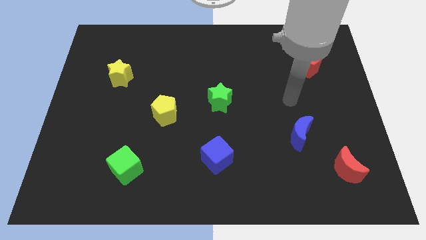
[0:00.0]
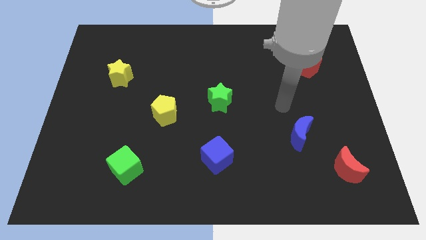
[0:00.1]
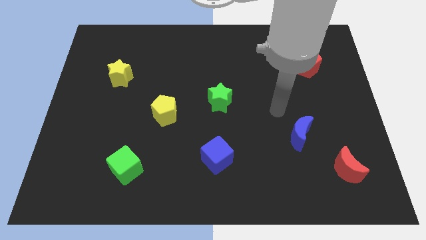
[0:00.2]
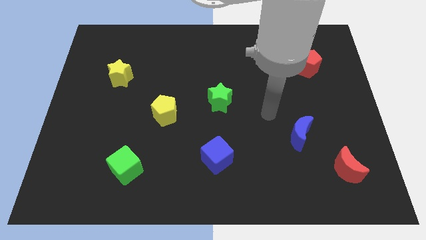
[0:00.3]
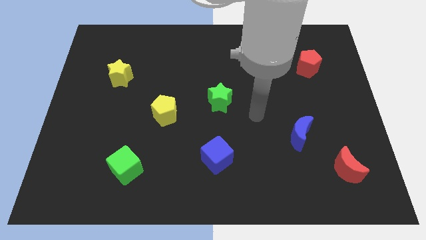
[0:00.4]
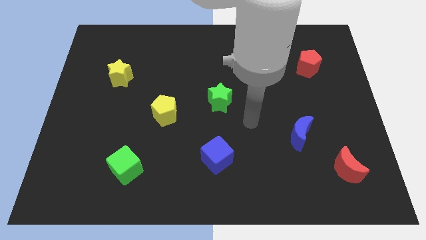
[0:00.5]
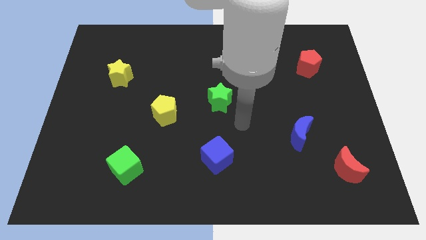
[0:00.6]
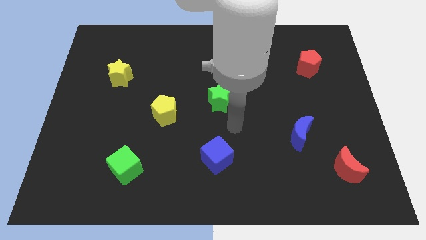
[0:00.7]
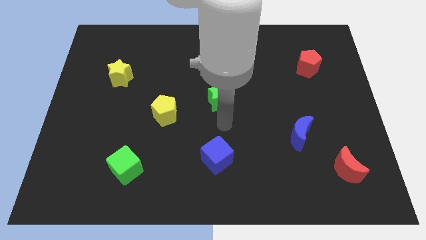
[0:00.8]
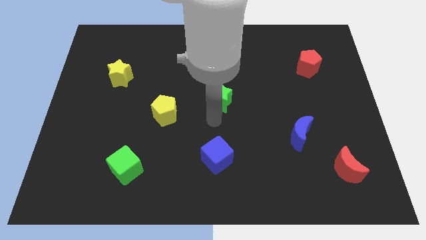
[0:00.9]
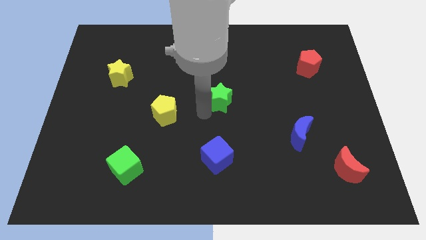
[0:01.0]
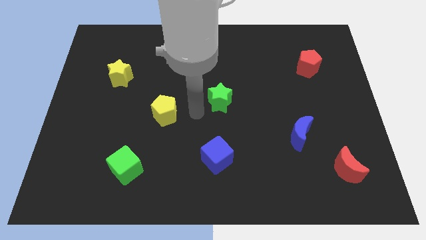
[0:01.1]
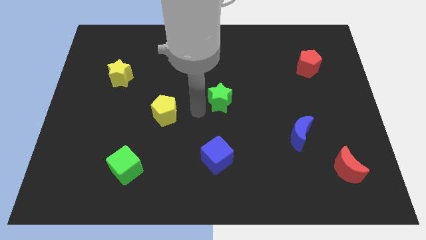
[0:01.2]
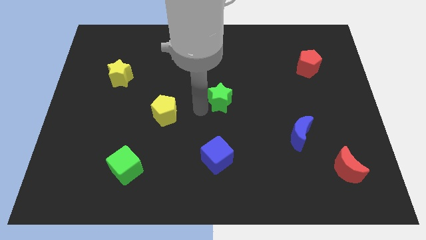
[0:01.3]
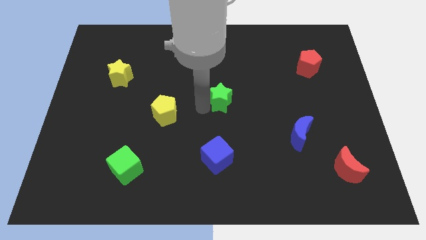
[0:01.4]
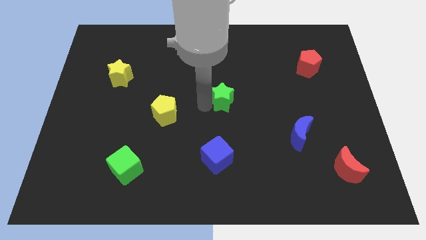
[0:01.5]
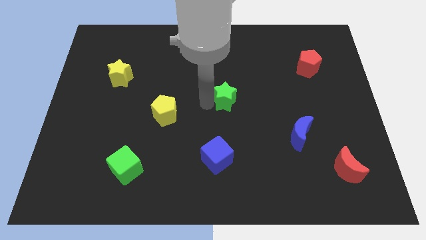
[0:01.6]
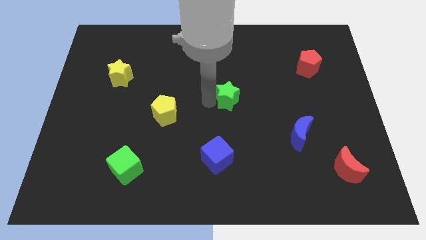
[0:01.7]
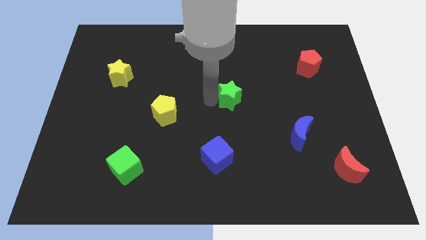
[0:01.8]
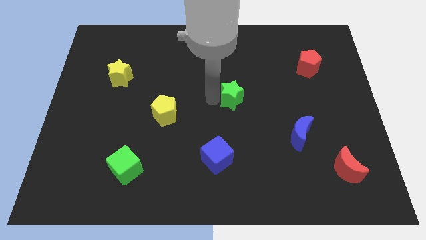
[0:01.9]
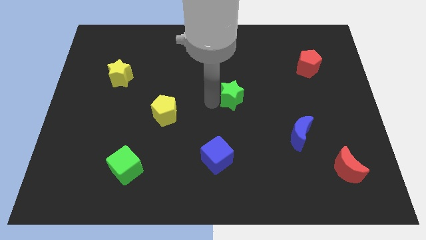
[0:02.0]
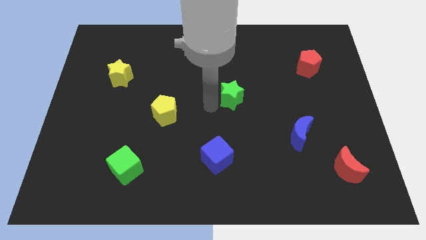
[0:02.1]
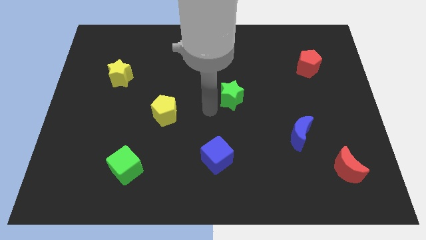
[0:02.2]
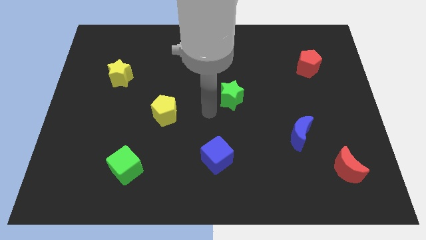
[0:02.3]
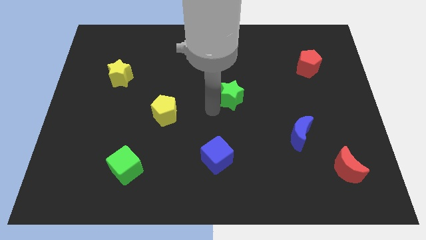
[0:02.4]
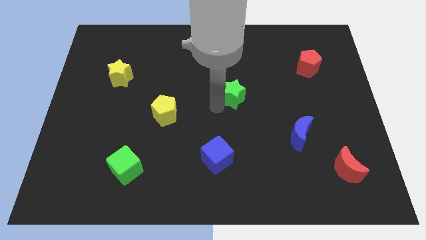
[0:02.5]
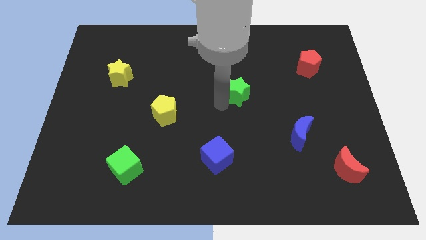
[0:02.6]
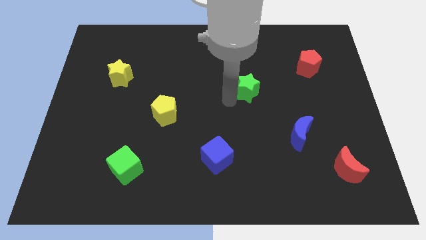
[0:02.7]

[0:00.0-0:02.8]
move the green star a little upwards and to the right diagonally

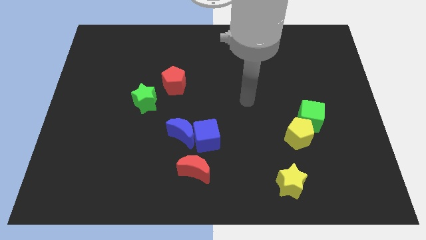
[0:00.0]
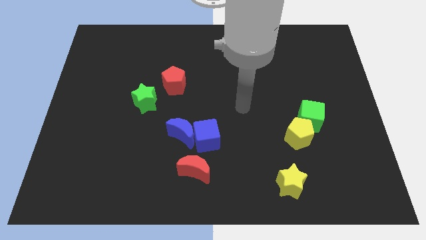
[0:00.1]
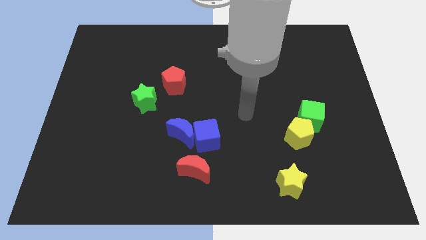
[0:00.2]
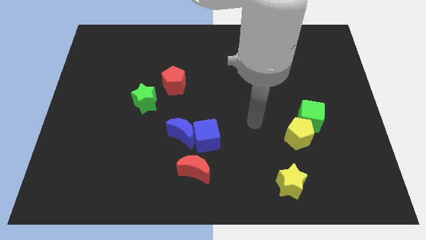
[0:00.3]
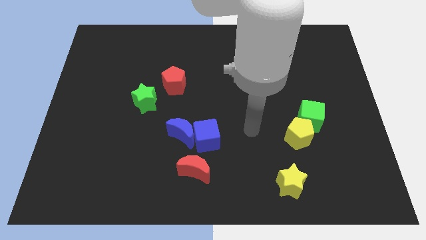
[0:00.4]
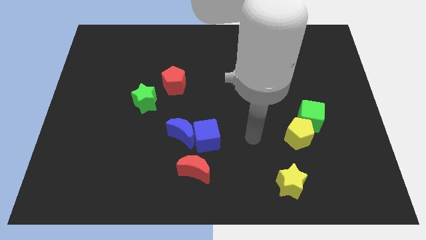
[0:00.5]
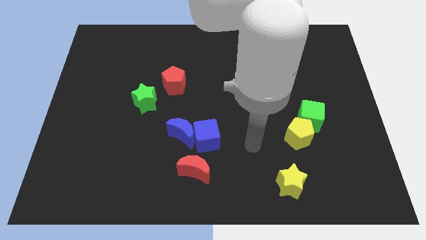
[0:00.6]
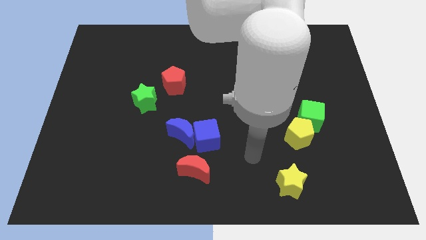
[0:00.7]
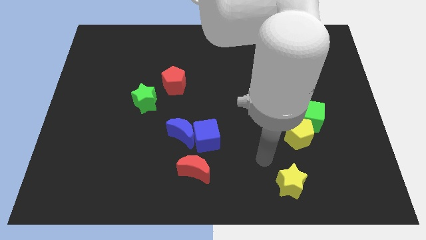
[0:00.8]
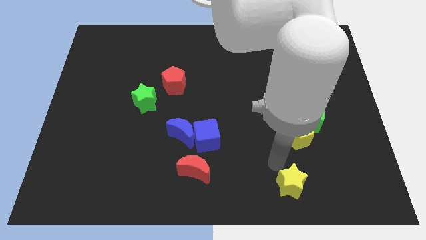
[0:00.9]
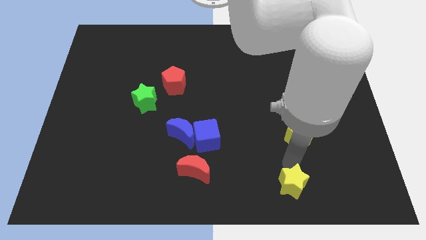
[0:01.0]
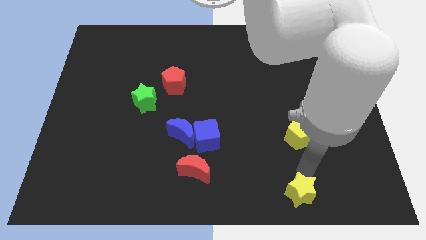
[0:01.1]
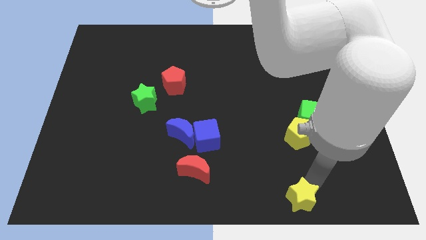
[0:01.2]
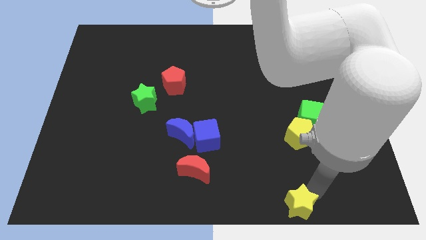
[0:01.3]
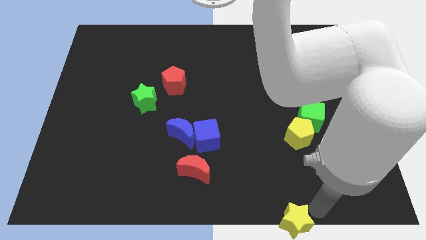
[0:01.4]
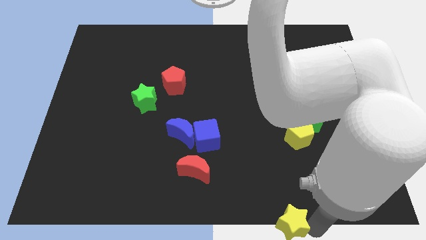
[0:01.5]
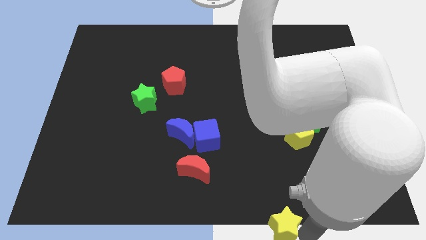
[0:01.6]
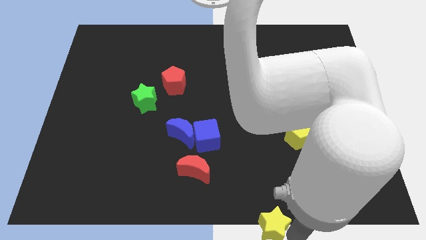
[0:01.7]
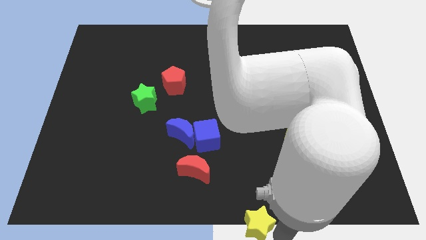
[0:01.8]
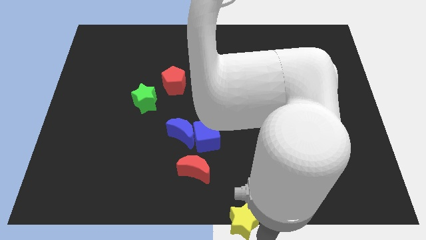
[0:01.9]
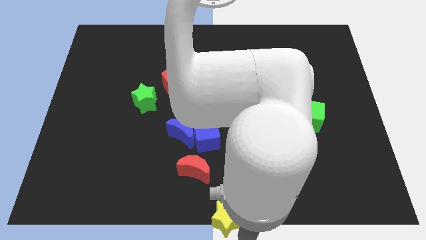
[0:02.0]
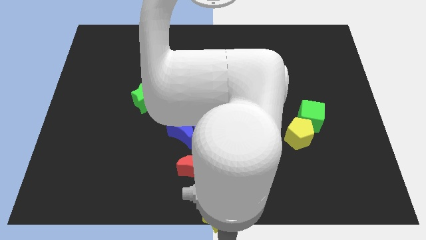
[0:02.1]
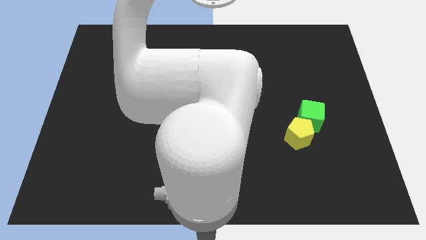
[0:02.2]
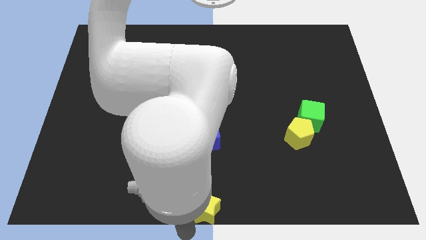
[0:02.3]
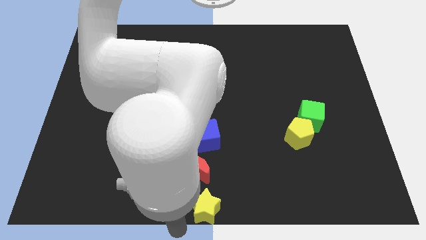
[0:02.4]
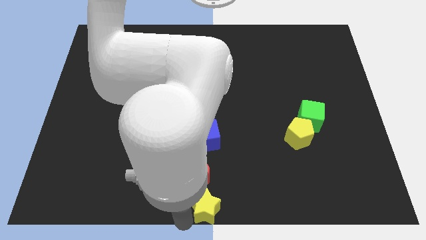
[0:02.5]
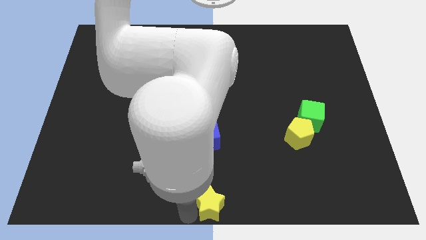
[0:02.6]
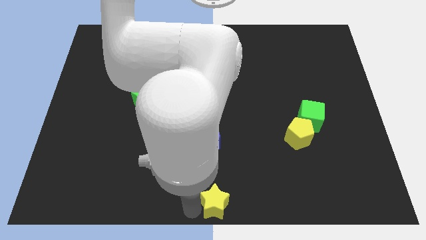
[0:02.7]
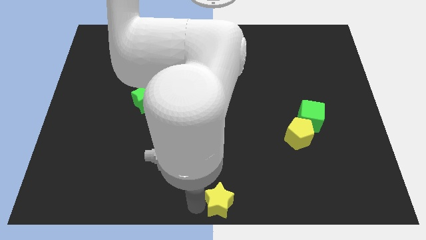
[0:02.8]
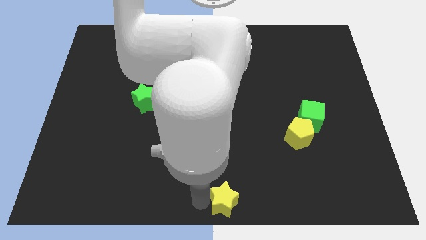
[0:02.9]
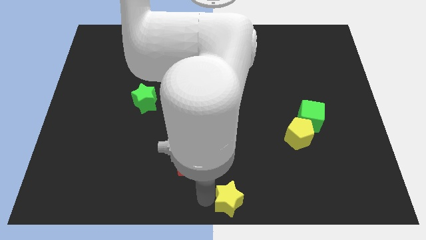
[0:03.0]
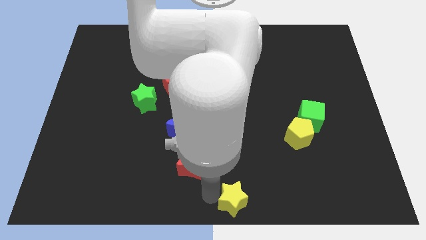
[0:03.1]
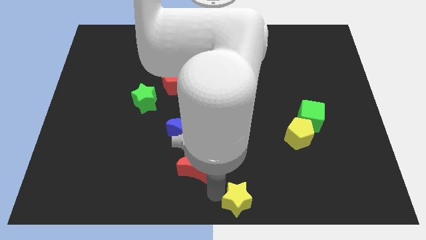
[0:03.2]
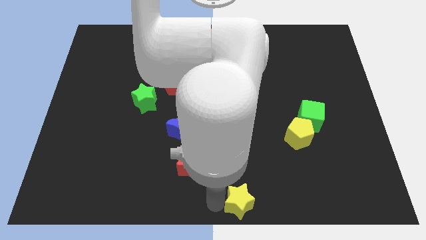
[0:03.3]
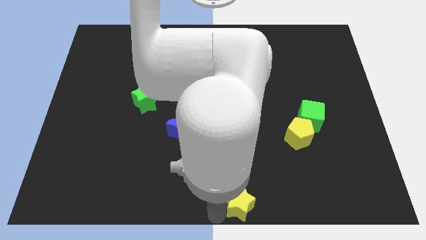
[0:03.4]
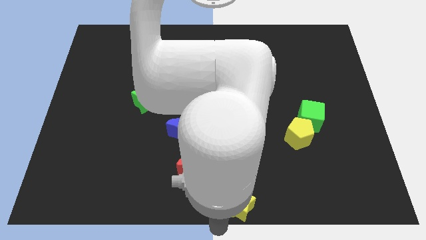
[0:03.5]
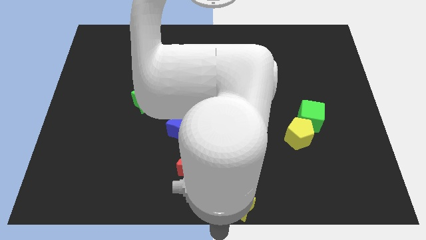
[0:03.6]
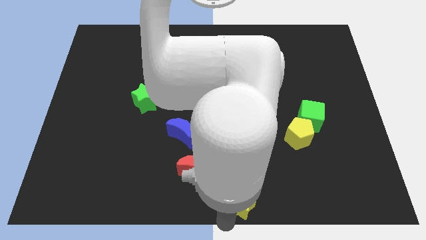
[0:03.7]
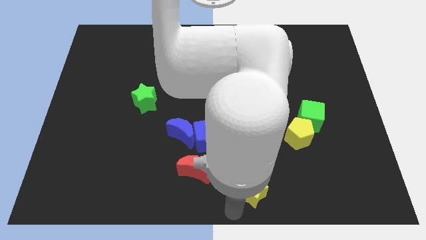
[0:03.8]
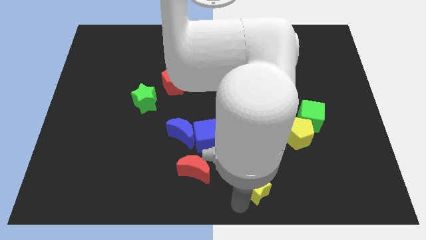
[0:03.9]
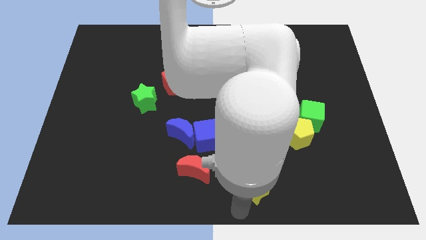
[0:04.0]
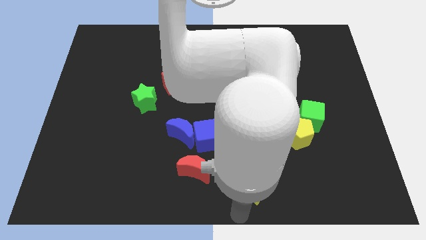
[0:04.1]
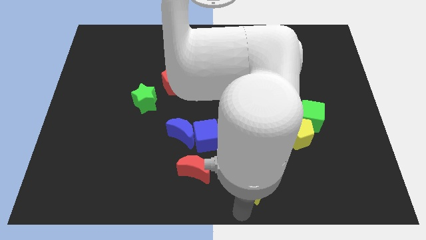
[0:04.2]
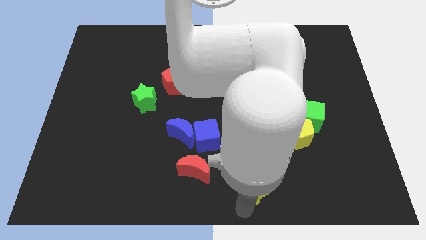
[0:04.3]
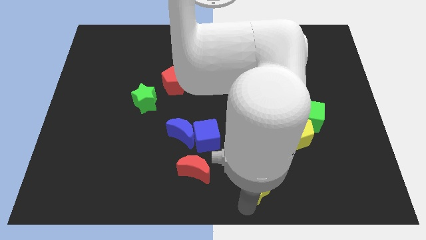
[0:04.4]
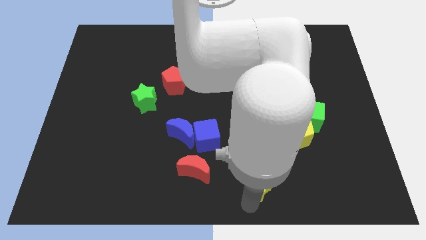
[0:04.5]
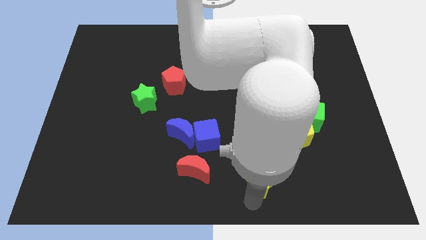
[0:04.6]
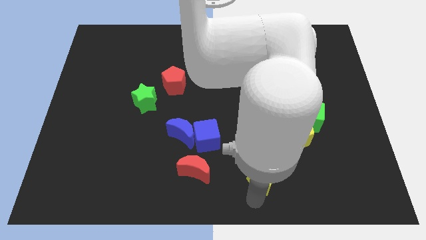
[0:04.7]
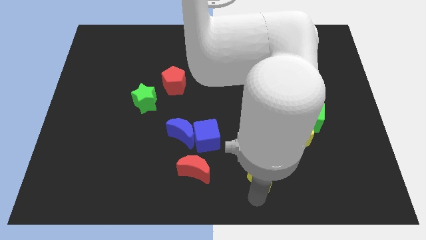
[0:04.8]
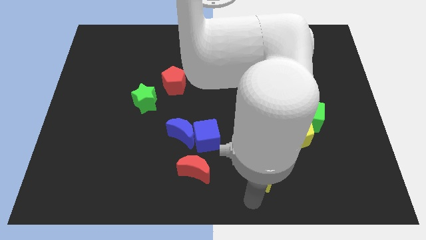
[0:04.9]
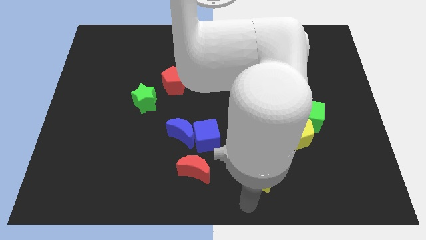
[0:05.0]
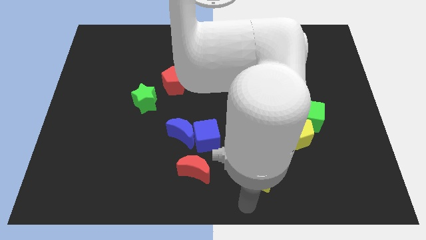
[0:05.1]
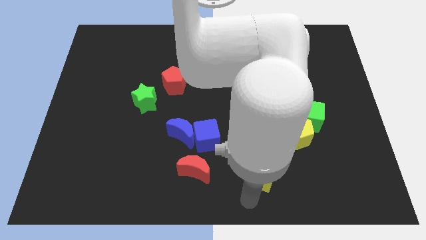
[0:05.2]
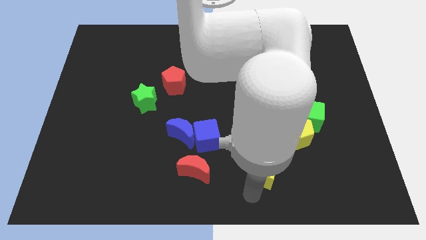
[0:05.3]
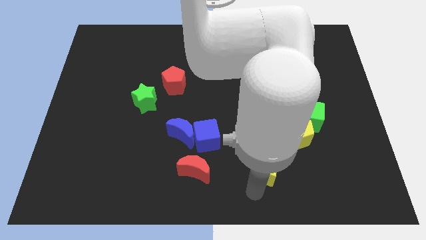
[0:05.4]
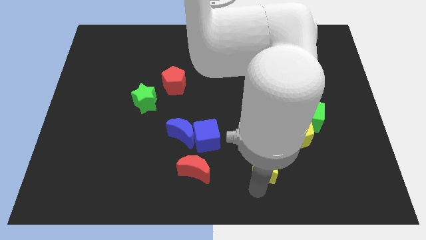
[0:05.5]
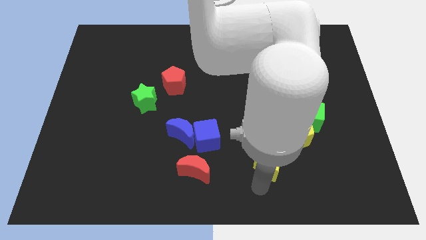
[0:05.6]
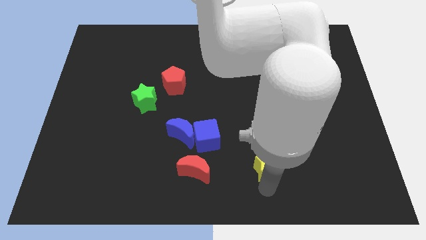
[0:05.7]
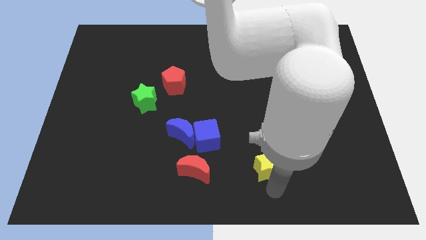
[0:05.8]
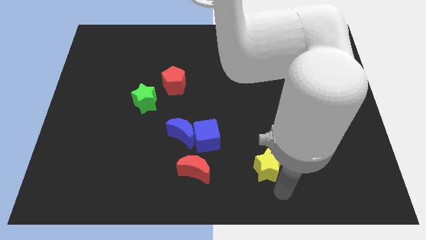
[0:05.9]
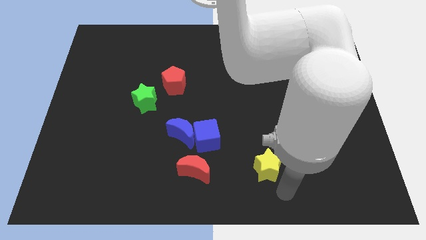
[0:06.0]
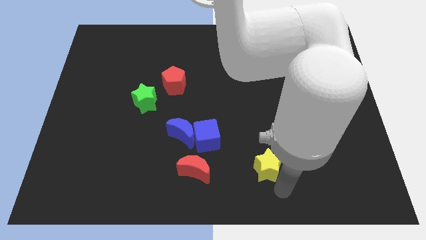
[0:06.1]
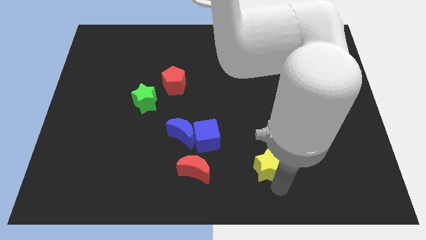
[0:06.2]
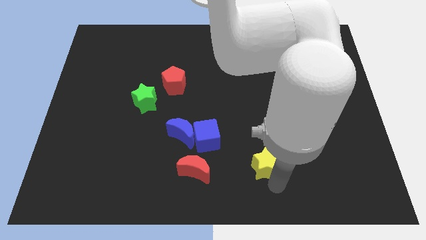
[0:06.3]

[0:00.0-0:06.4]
slide the yellow star somewhat diagonally up and left
